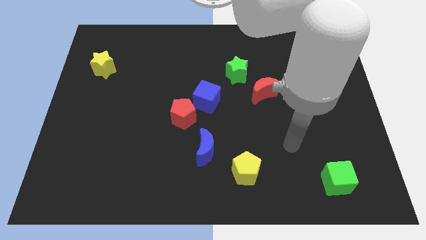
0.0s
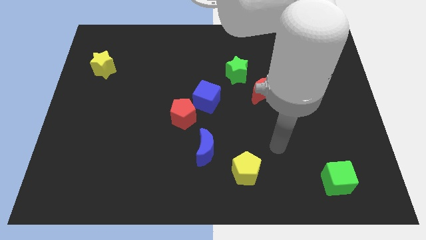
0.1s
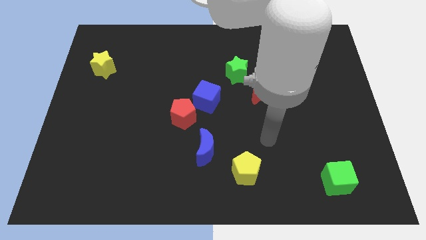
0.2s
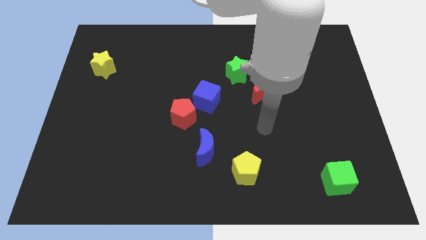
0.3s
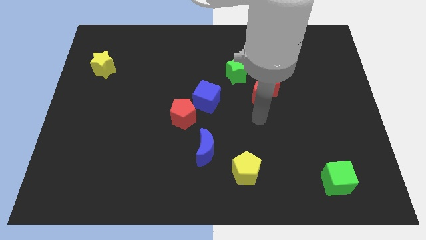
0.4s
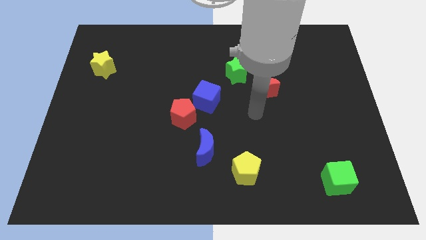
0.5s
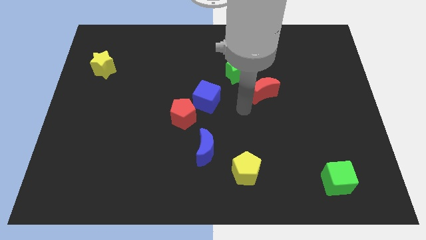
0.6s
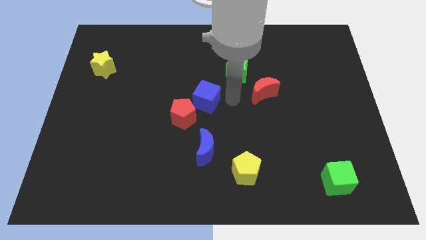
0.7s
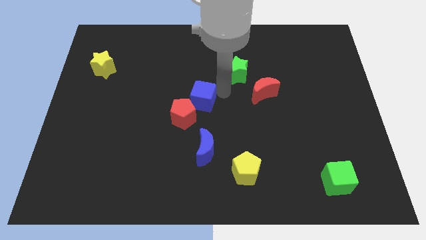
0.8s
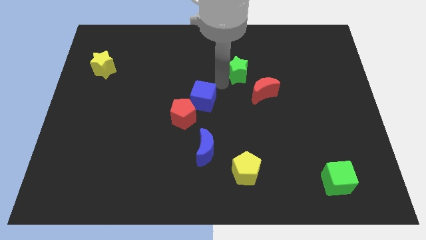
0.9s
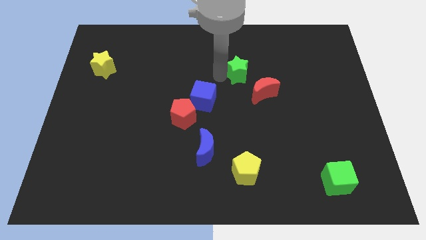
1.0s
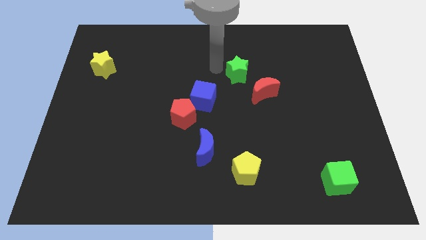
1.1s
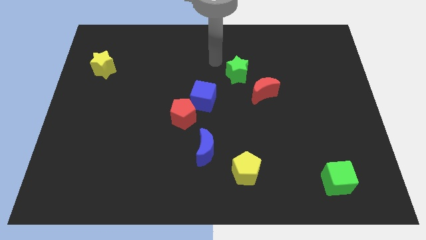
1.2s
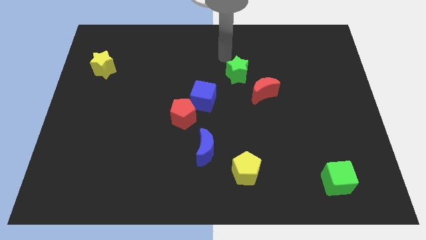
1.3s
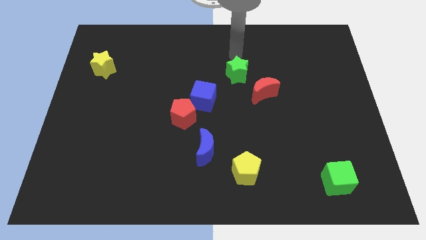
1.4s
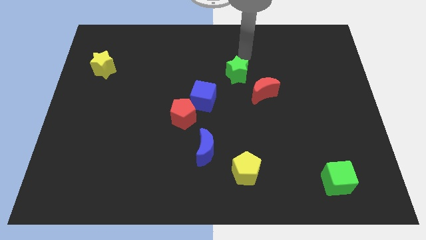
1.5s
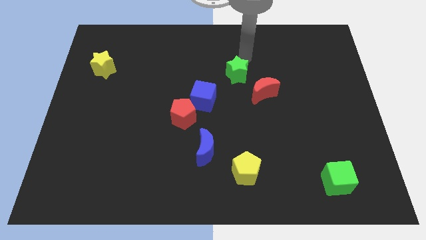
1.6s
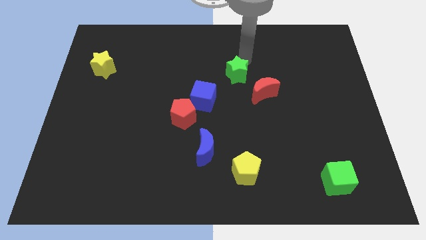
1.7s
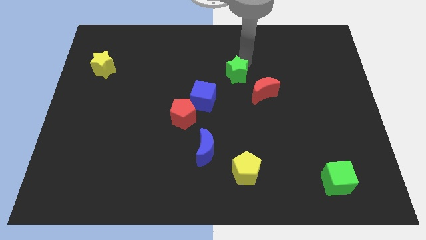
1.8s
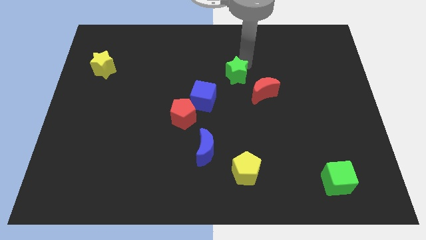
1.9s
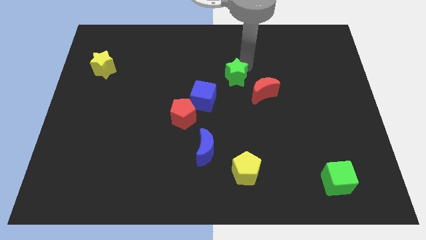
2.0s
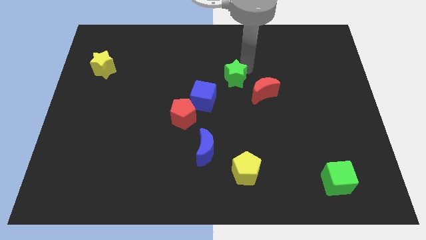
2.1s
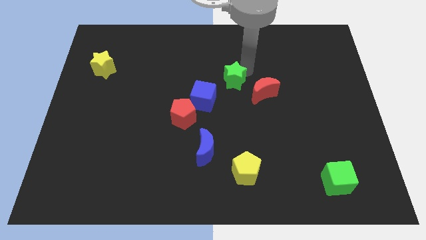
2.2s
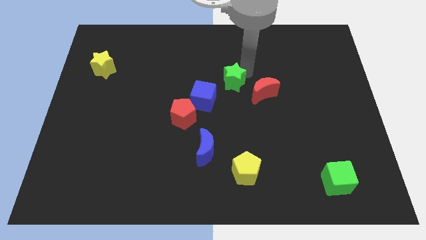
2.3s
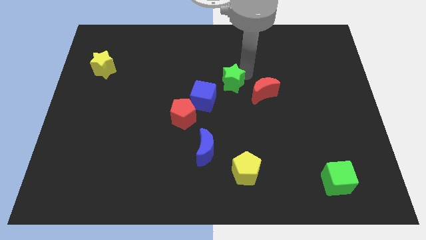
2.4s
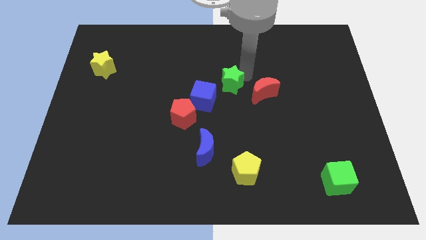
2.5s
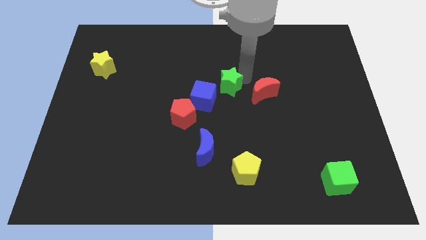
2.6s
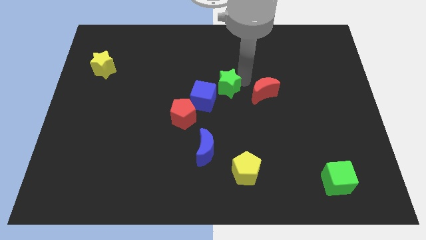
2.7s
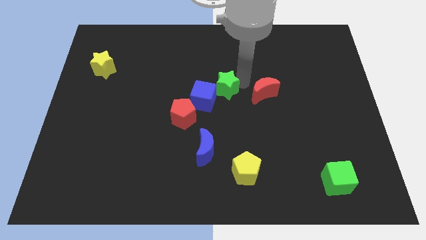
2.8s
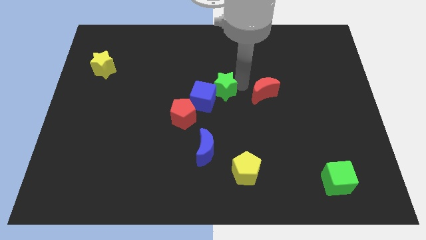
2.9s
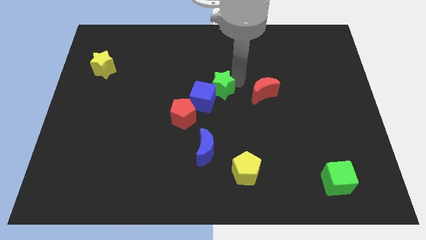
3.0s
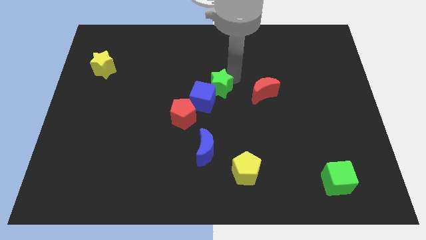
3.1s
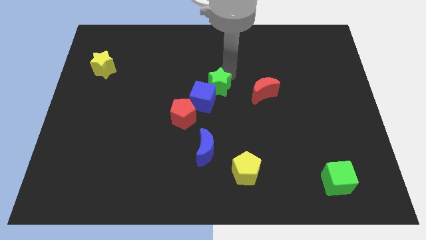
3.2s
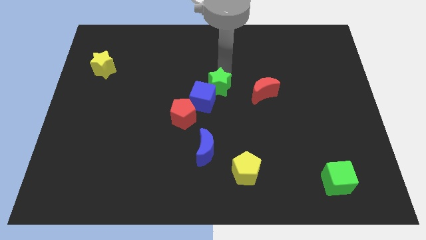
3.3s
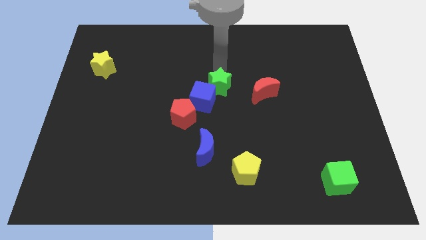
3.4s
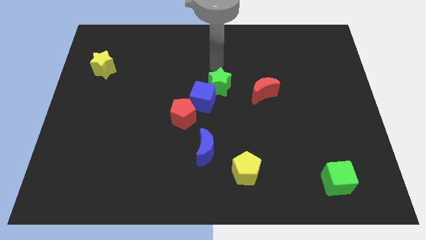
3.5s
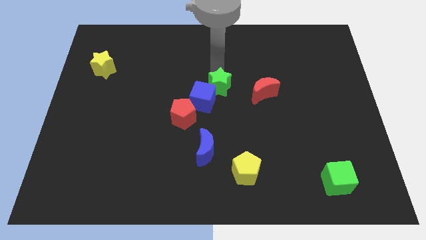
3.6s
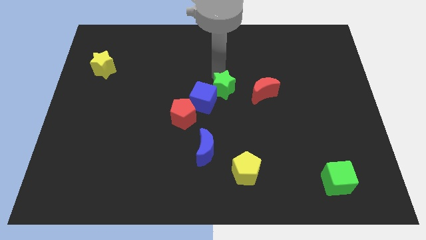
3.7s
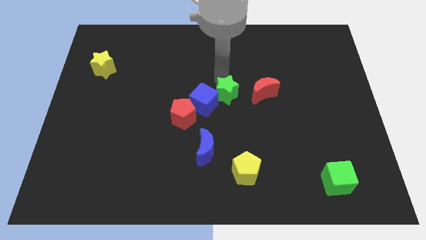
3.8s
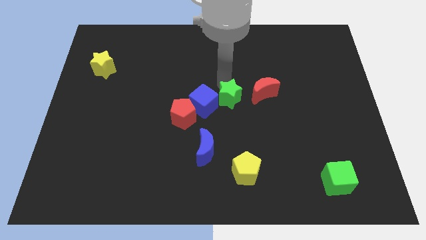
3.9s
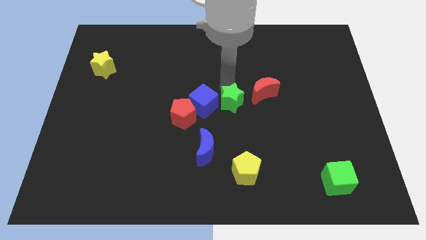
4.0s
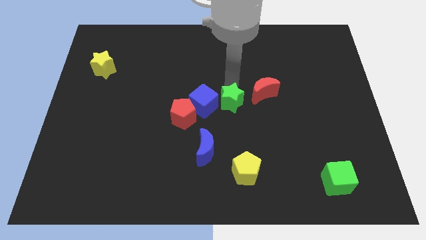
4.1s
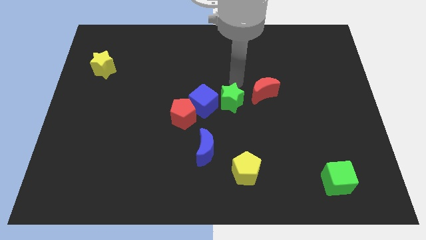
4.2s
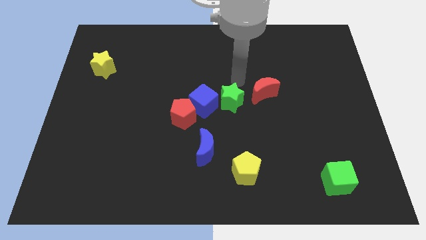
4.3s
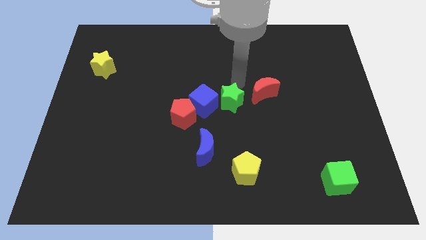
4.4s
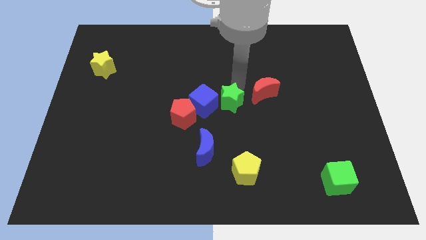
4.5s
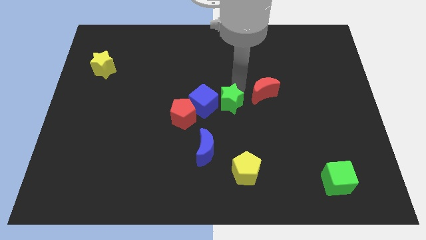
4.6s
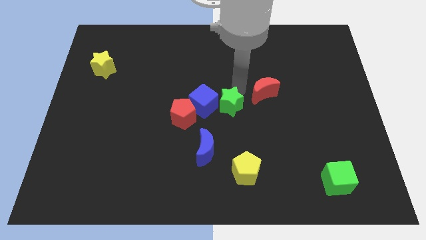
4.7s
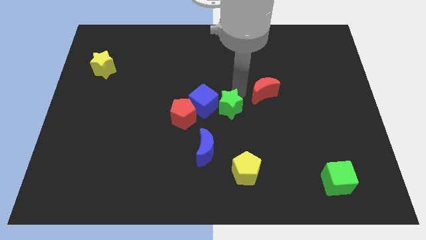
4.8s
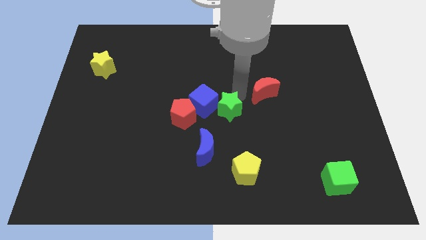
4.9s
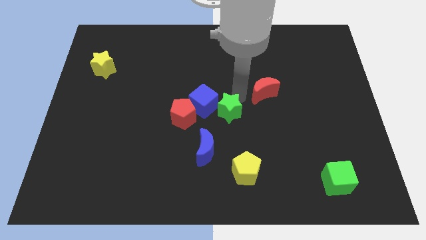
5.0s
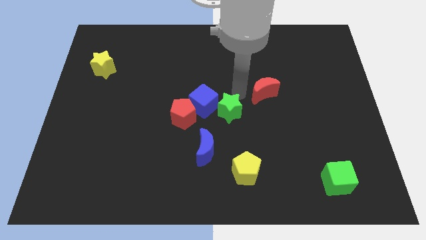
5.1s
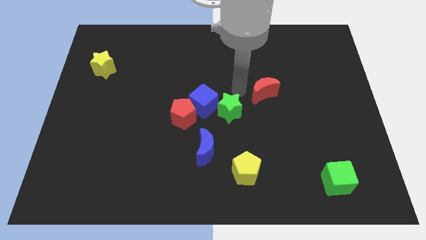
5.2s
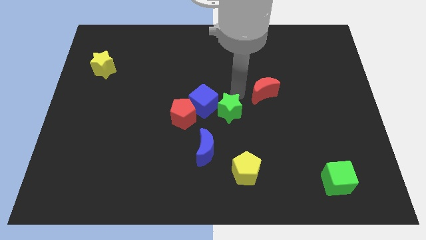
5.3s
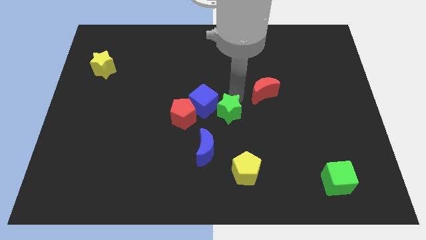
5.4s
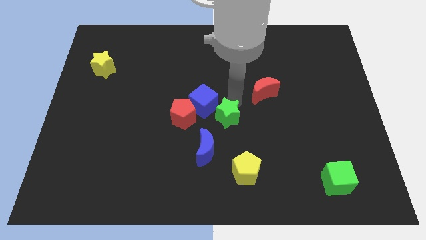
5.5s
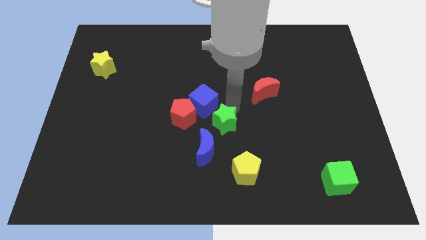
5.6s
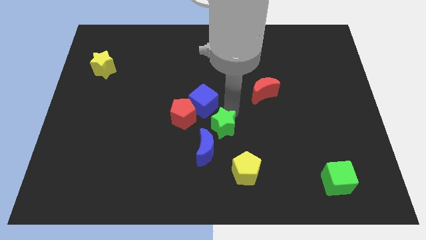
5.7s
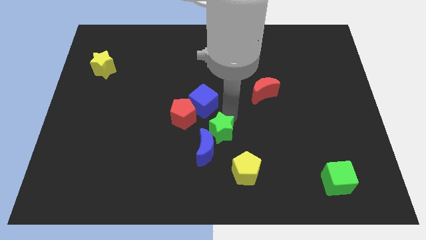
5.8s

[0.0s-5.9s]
move the green star next to the blue moon

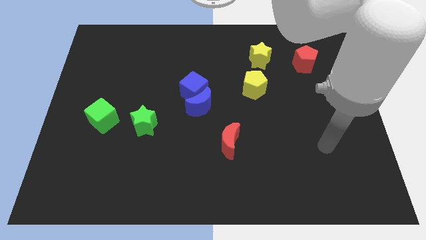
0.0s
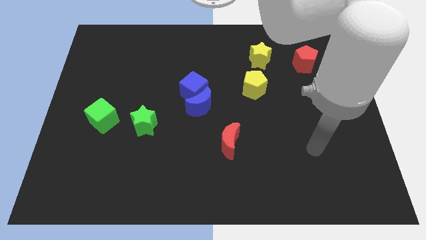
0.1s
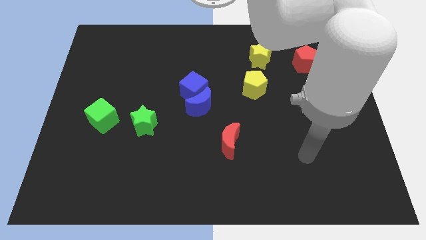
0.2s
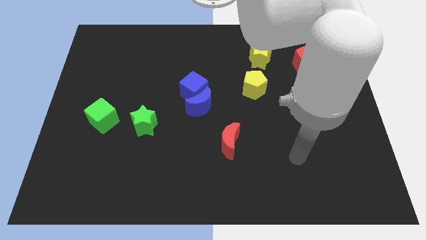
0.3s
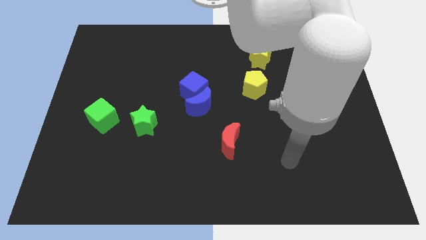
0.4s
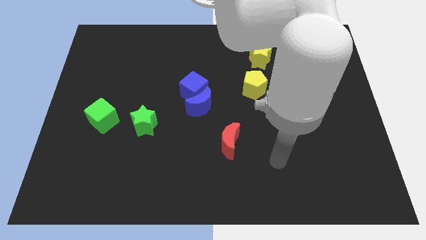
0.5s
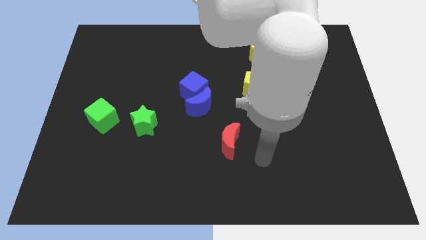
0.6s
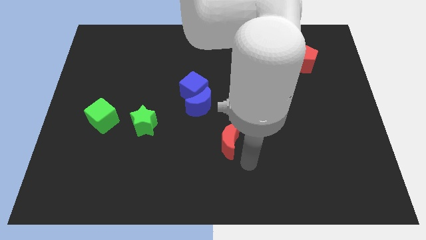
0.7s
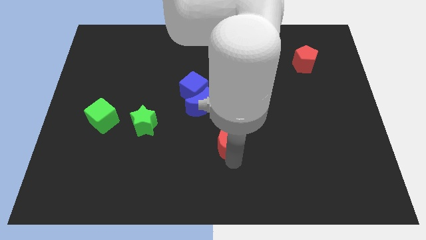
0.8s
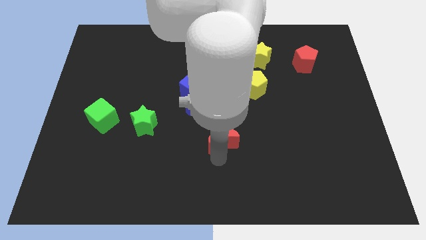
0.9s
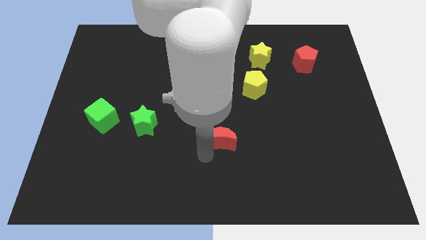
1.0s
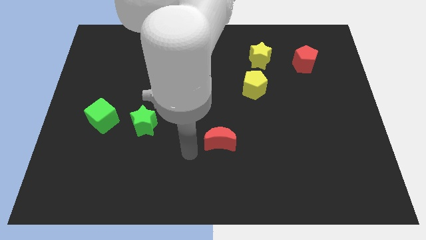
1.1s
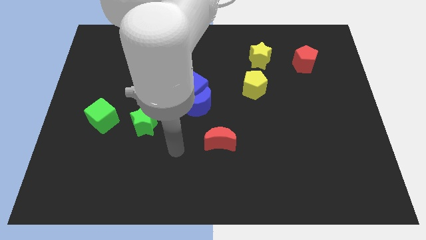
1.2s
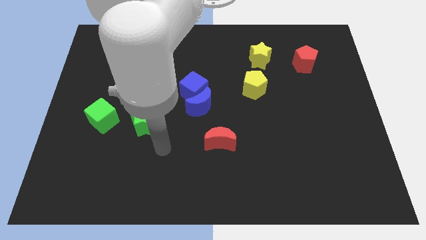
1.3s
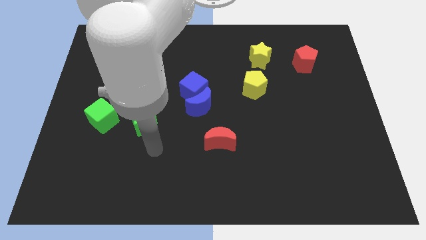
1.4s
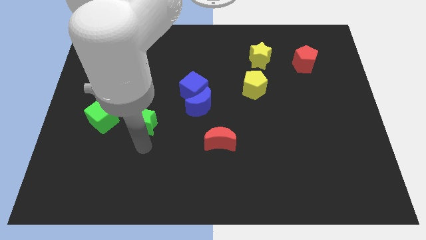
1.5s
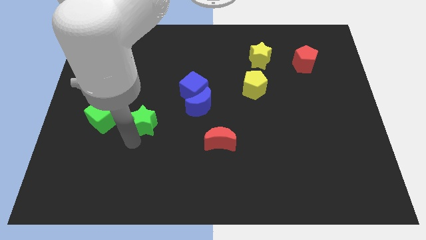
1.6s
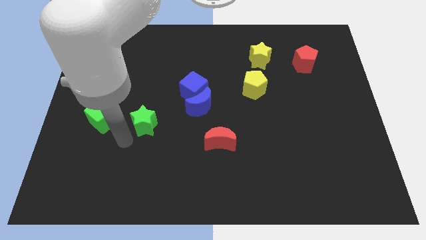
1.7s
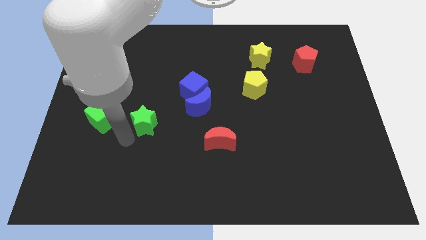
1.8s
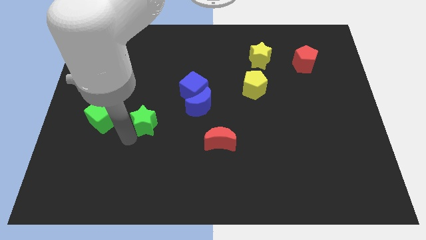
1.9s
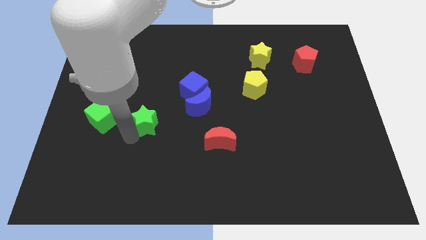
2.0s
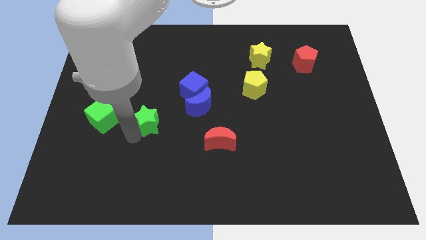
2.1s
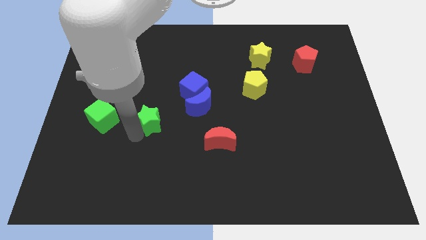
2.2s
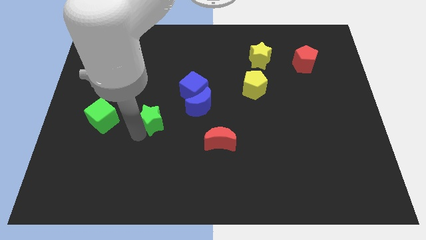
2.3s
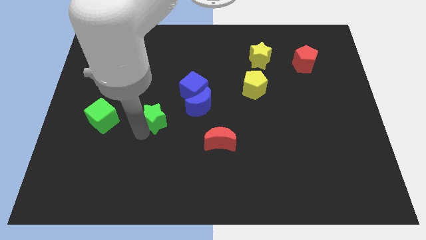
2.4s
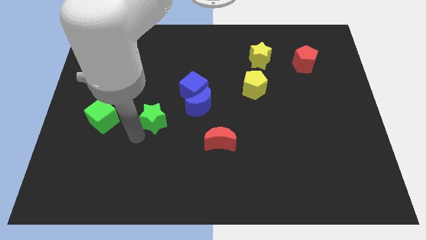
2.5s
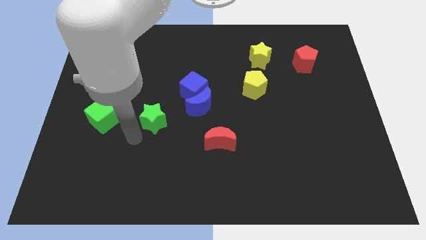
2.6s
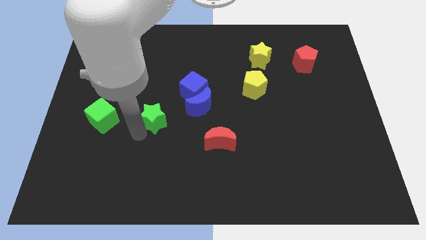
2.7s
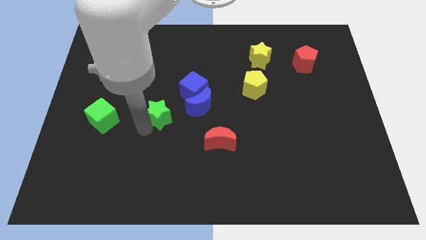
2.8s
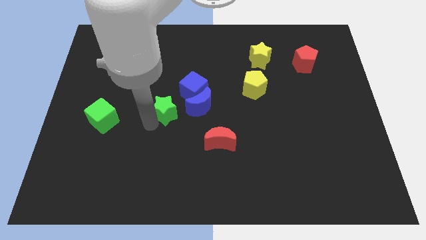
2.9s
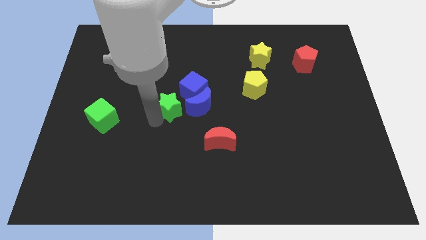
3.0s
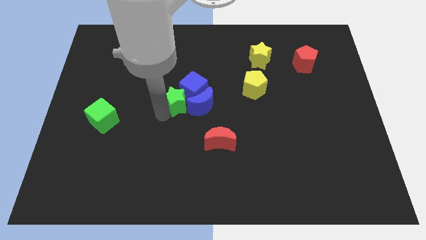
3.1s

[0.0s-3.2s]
push the green star to the blue cube
